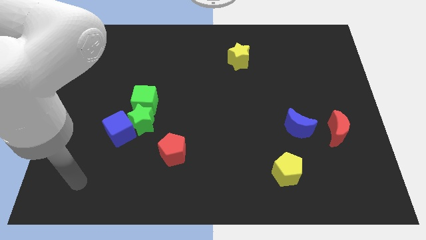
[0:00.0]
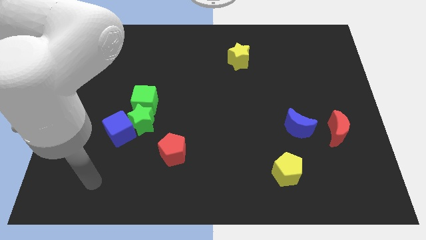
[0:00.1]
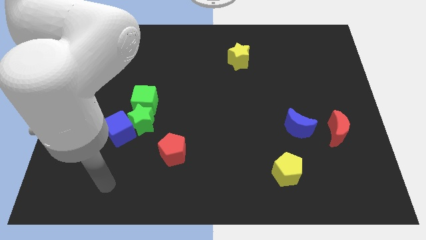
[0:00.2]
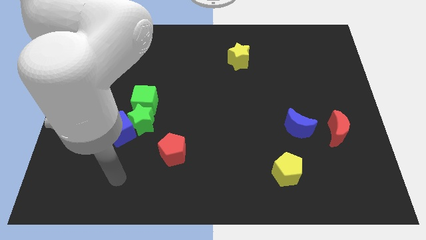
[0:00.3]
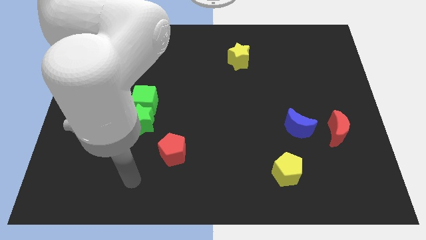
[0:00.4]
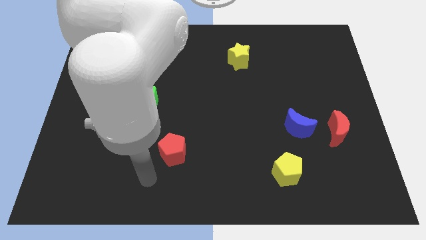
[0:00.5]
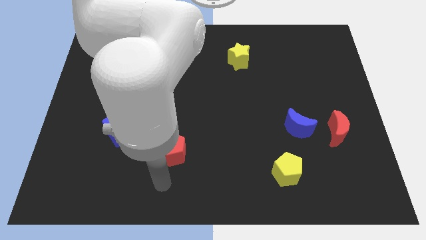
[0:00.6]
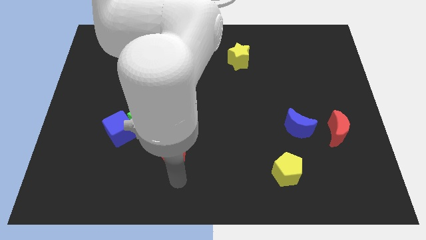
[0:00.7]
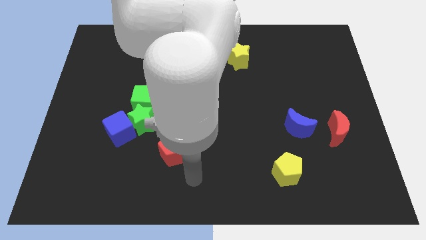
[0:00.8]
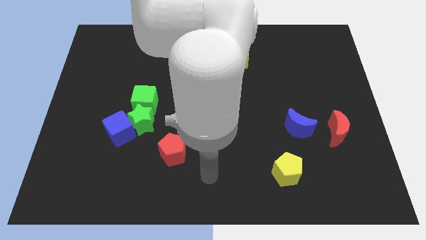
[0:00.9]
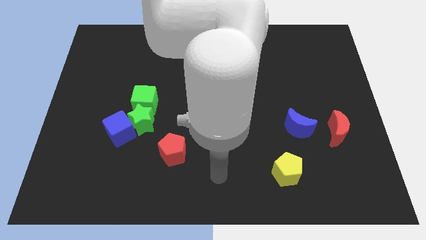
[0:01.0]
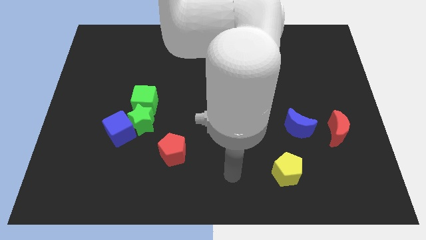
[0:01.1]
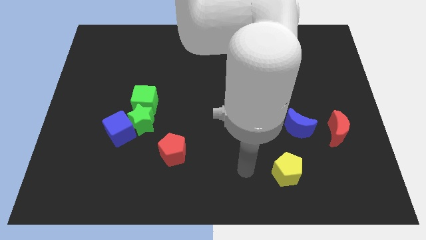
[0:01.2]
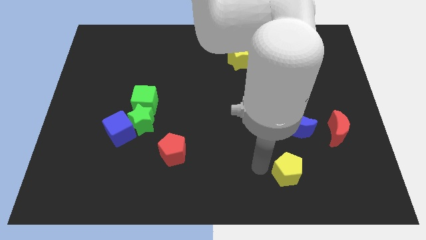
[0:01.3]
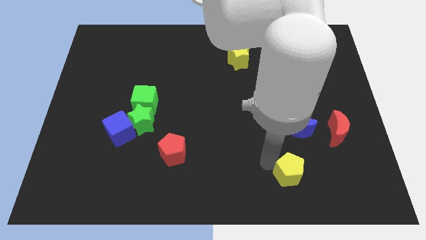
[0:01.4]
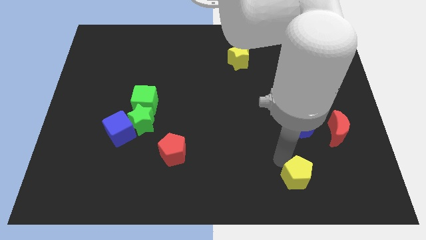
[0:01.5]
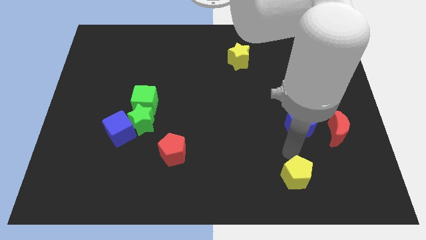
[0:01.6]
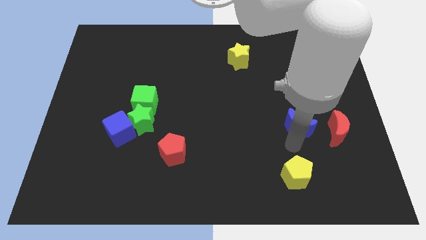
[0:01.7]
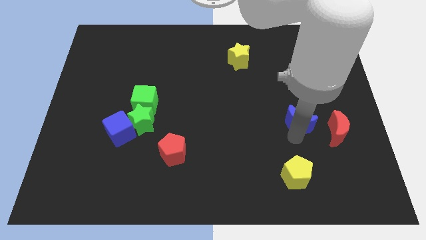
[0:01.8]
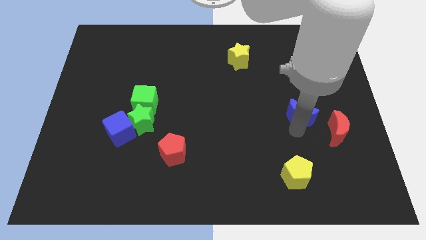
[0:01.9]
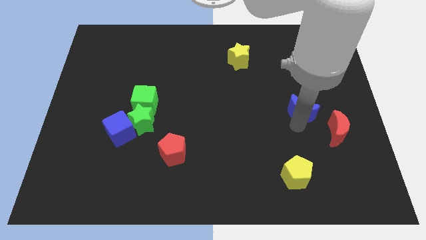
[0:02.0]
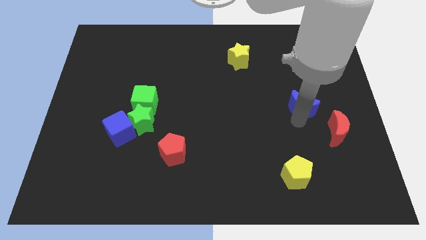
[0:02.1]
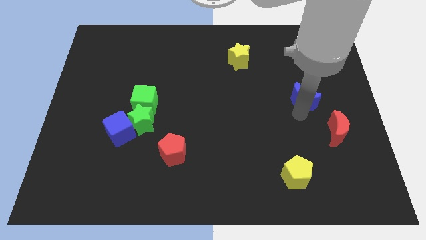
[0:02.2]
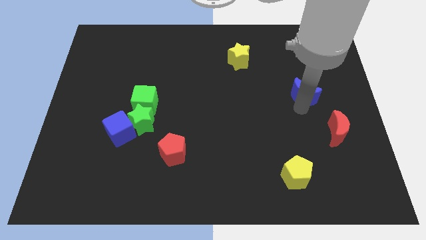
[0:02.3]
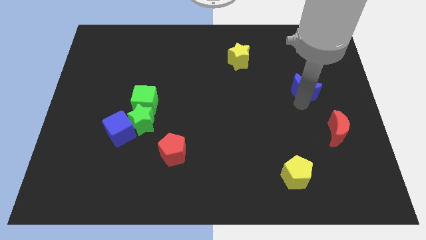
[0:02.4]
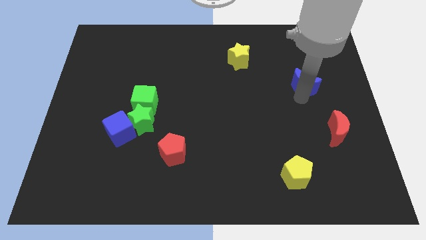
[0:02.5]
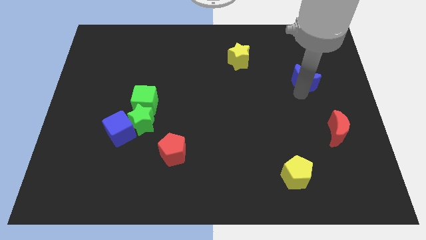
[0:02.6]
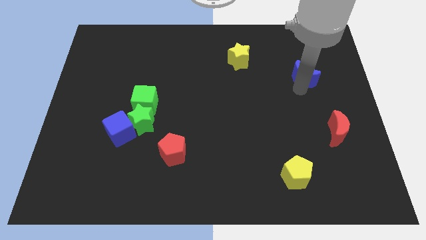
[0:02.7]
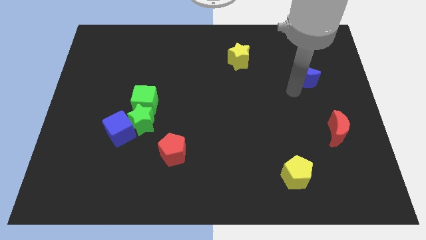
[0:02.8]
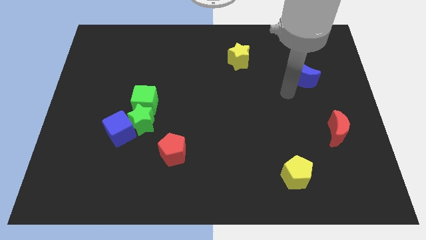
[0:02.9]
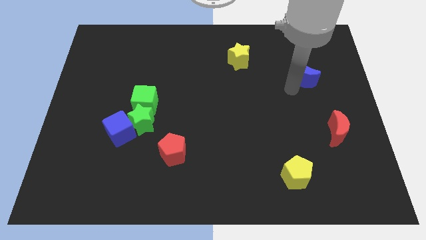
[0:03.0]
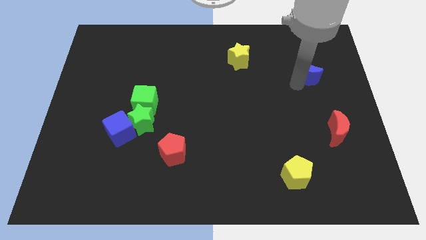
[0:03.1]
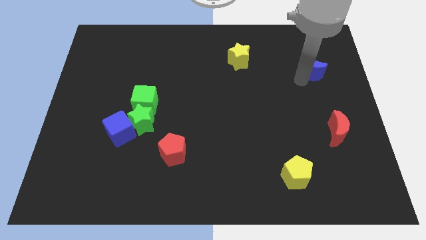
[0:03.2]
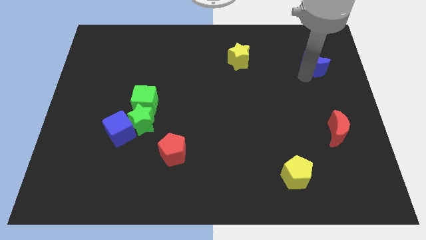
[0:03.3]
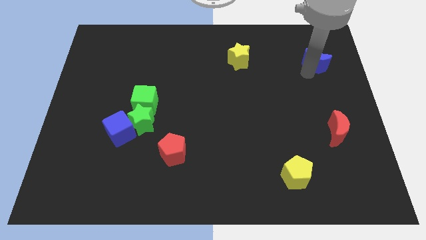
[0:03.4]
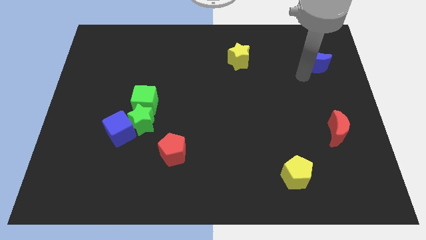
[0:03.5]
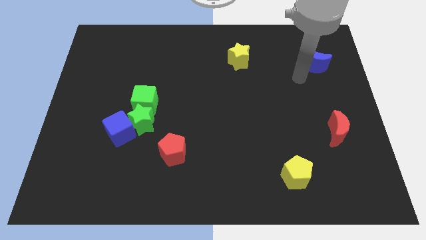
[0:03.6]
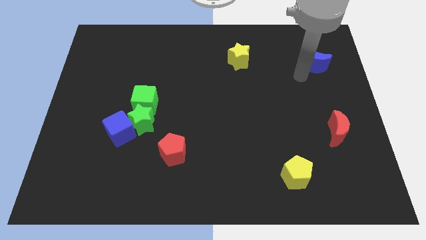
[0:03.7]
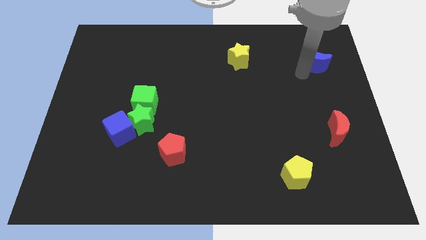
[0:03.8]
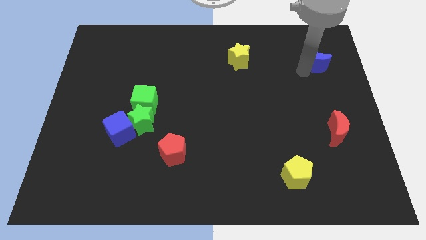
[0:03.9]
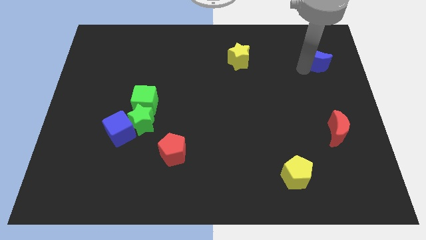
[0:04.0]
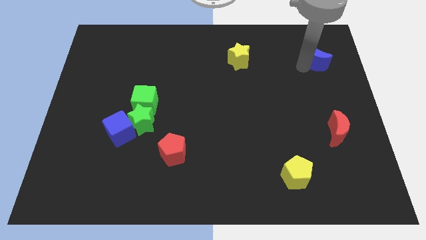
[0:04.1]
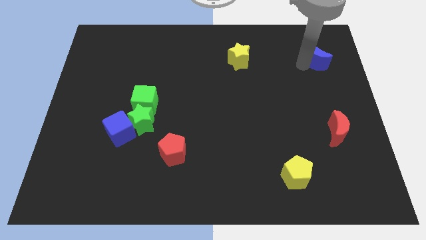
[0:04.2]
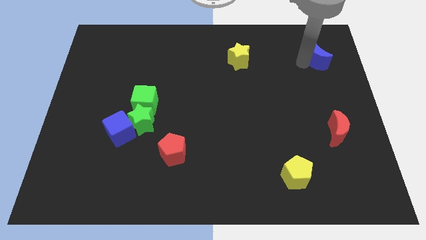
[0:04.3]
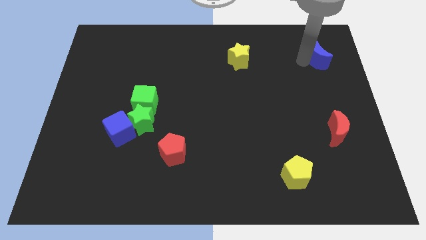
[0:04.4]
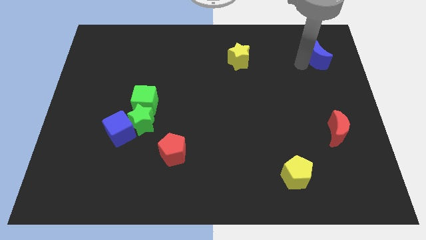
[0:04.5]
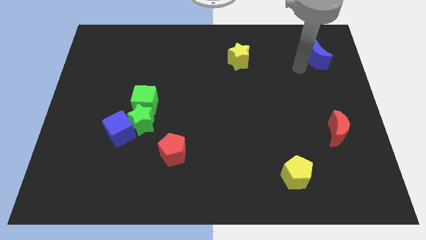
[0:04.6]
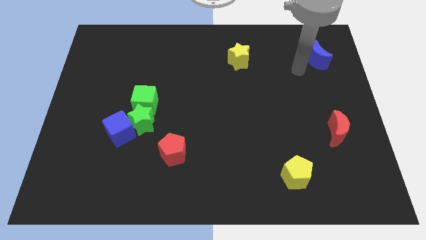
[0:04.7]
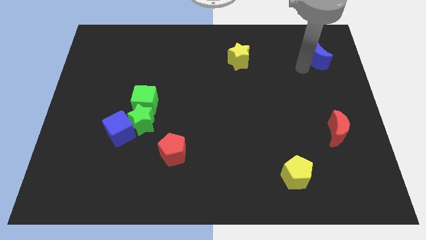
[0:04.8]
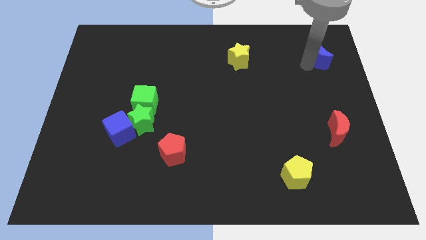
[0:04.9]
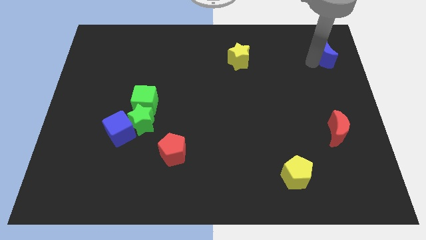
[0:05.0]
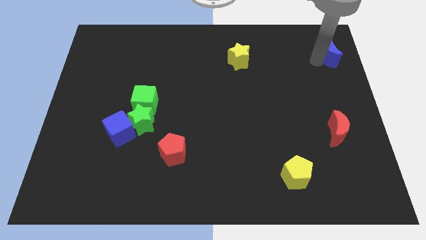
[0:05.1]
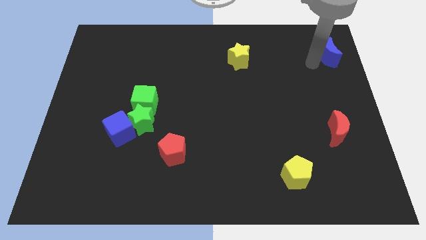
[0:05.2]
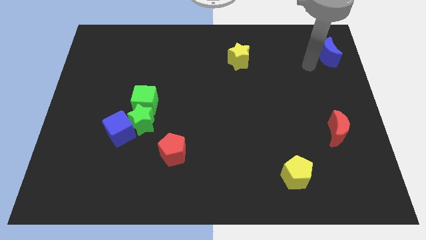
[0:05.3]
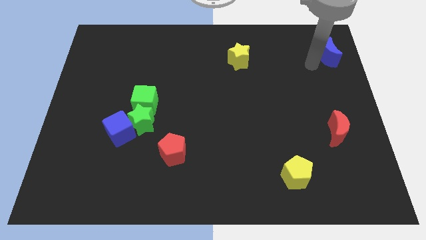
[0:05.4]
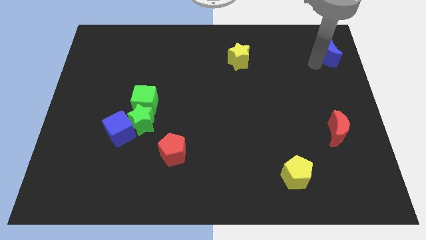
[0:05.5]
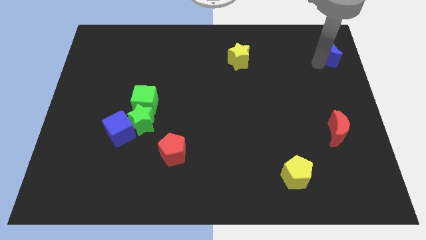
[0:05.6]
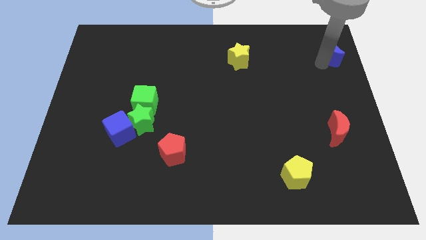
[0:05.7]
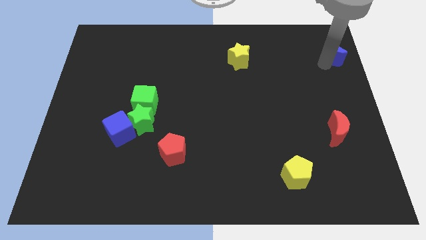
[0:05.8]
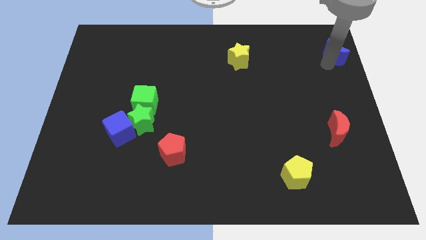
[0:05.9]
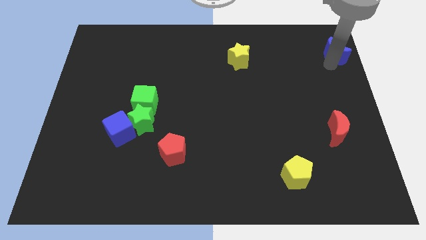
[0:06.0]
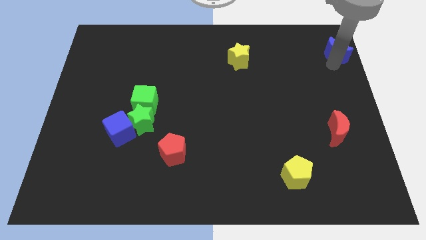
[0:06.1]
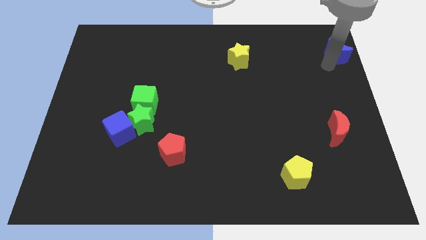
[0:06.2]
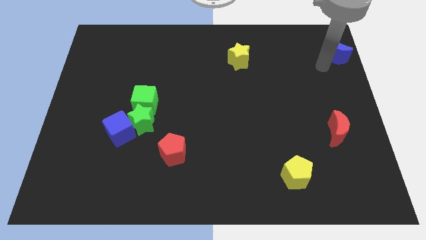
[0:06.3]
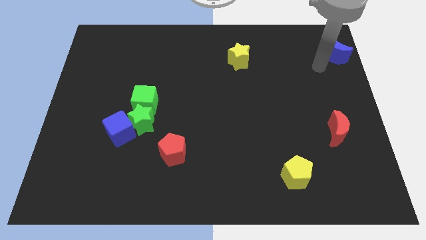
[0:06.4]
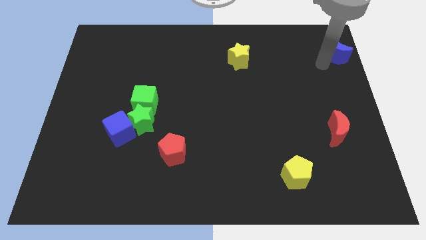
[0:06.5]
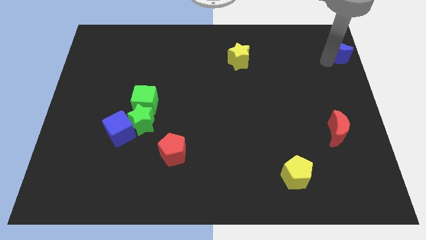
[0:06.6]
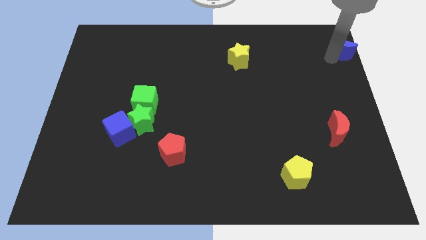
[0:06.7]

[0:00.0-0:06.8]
move the blue moon to the top right
